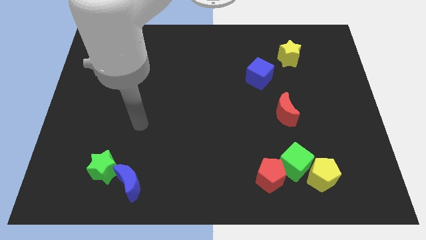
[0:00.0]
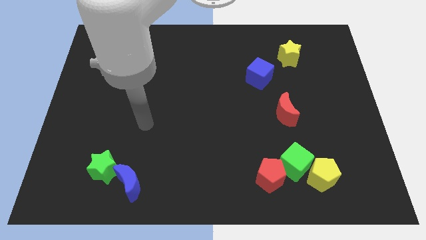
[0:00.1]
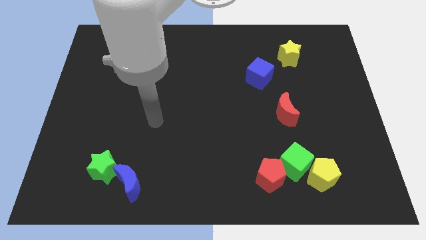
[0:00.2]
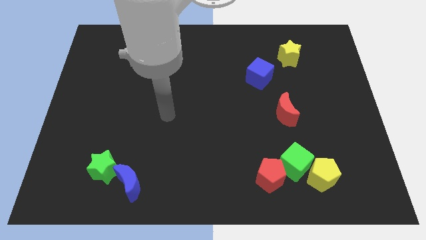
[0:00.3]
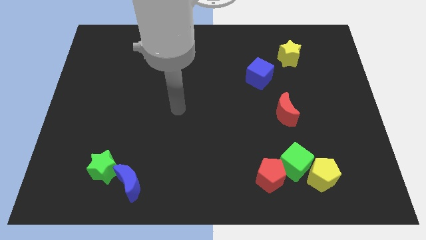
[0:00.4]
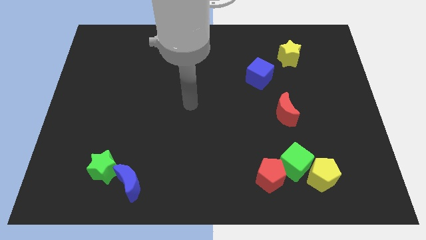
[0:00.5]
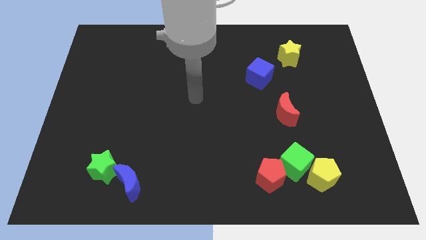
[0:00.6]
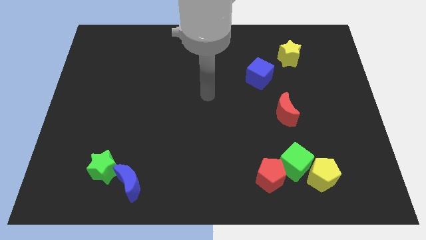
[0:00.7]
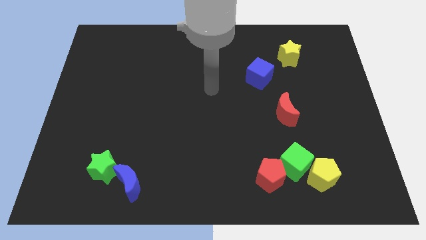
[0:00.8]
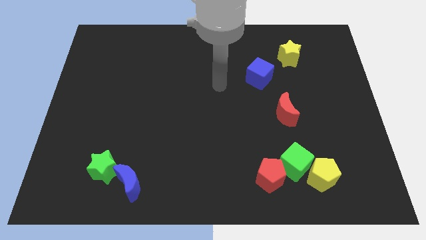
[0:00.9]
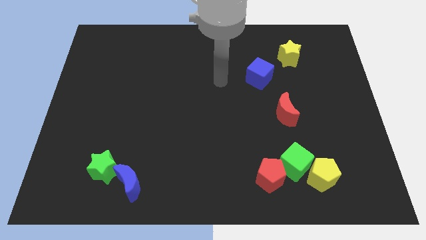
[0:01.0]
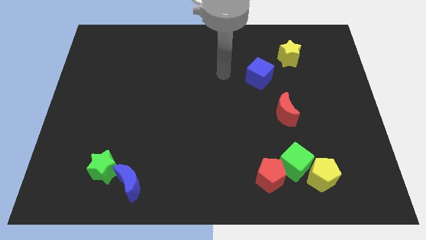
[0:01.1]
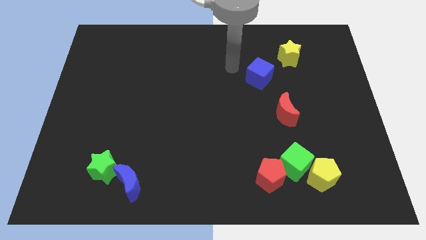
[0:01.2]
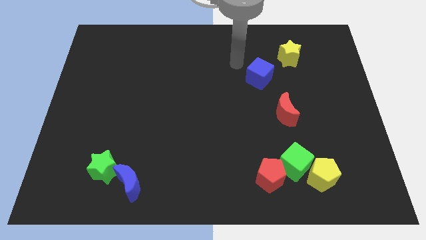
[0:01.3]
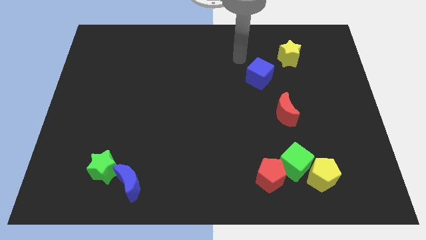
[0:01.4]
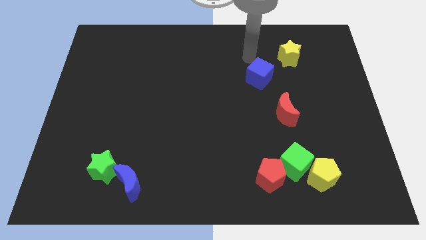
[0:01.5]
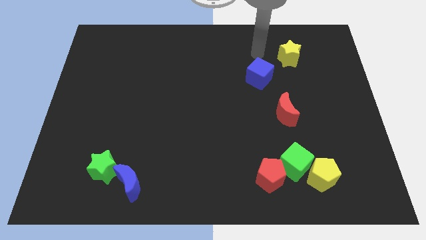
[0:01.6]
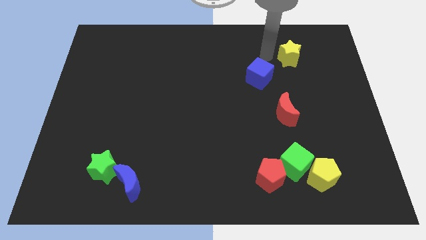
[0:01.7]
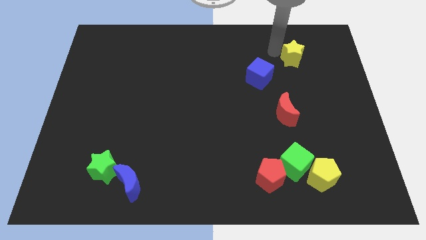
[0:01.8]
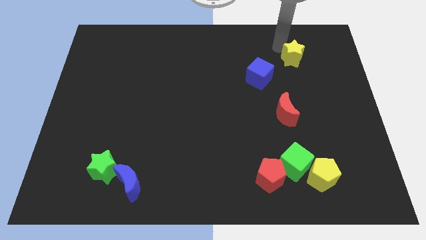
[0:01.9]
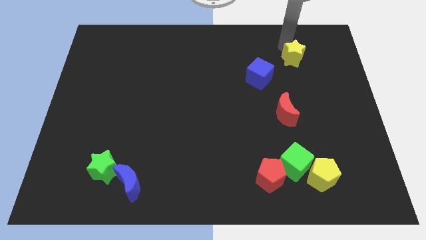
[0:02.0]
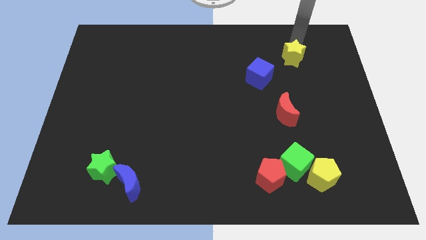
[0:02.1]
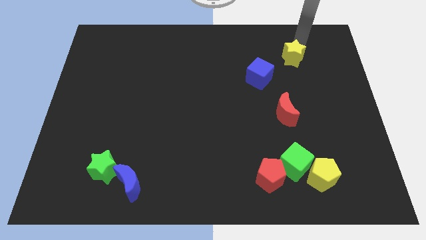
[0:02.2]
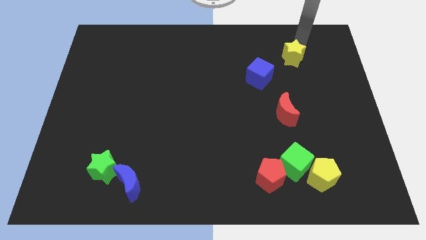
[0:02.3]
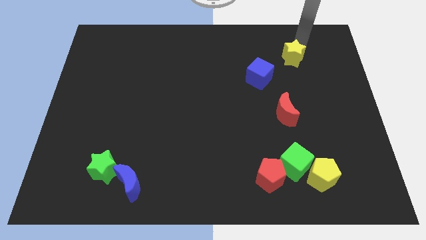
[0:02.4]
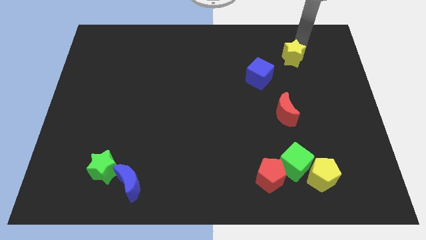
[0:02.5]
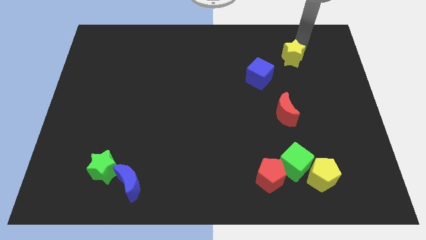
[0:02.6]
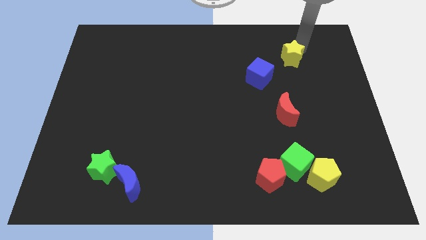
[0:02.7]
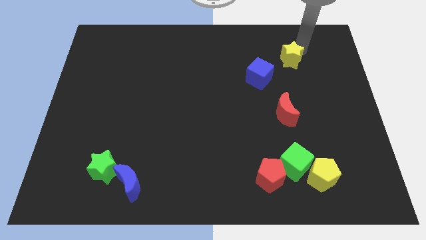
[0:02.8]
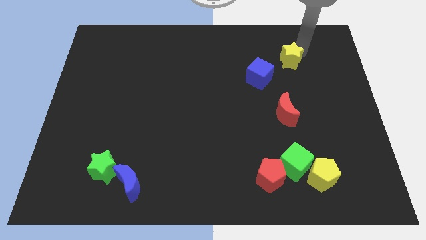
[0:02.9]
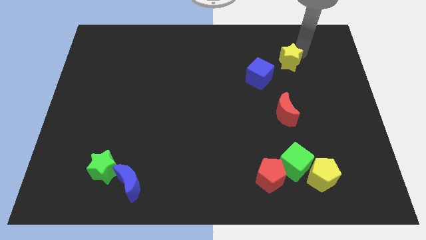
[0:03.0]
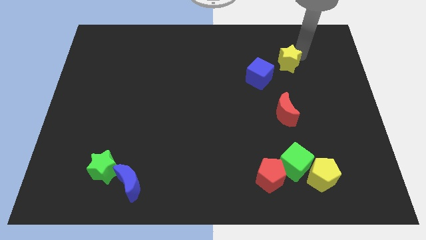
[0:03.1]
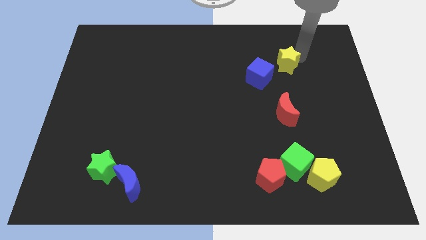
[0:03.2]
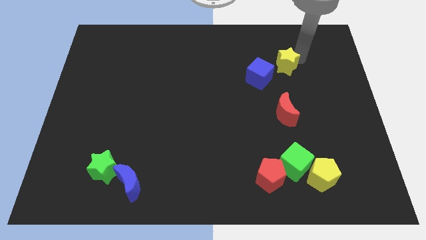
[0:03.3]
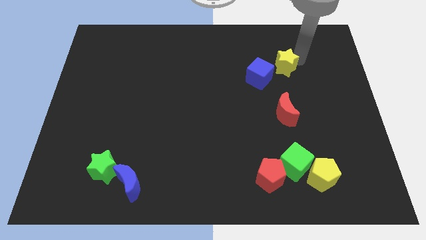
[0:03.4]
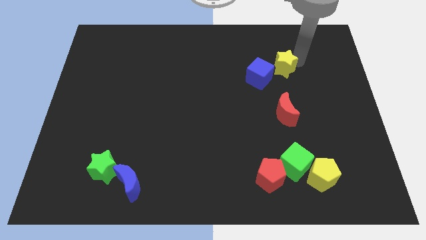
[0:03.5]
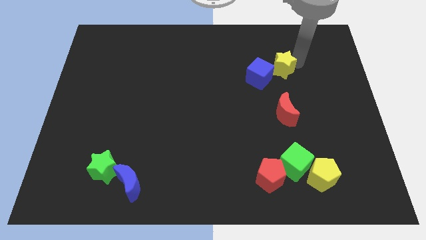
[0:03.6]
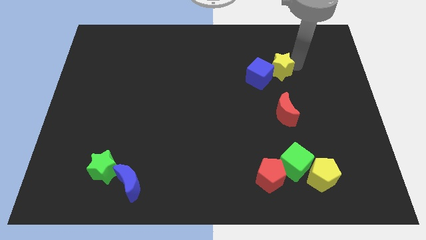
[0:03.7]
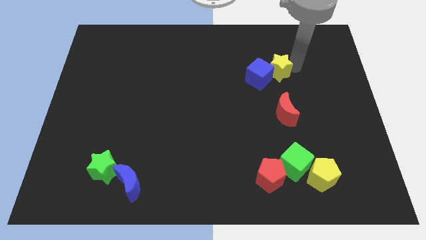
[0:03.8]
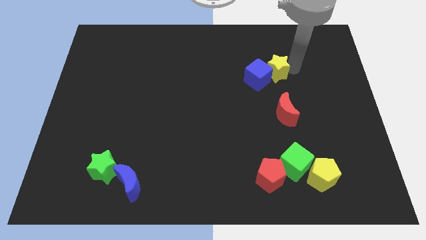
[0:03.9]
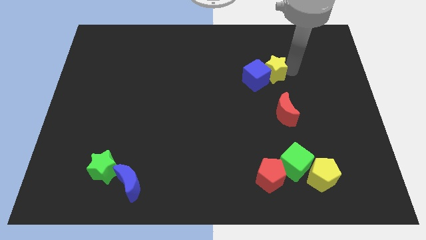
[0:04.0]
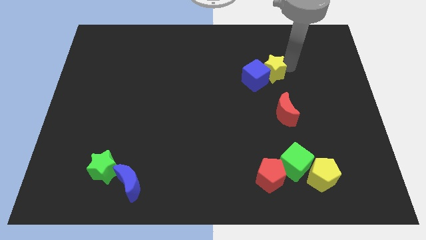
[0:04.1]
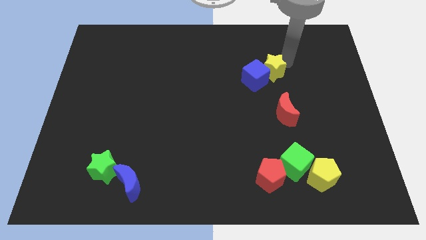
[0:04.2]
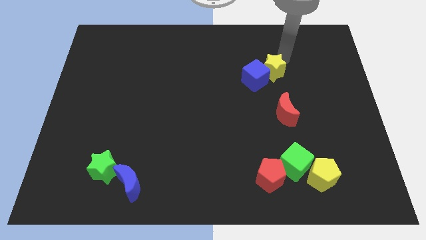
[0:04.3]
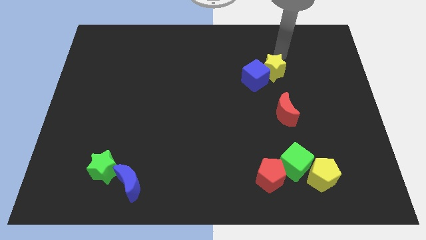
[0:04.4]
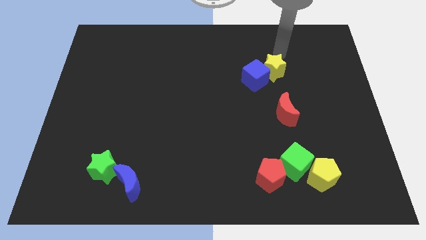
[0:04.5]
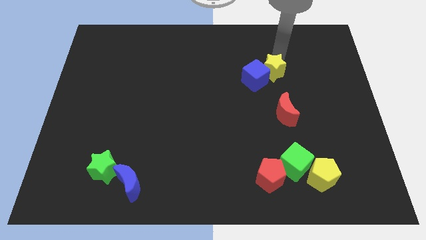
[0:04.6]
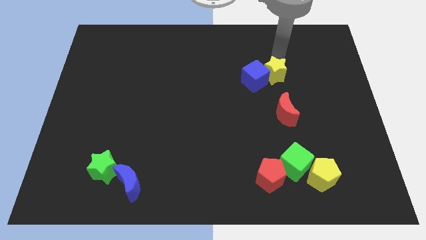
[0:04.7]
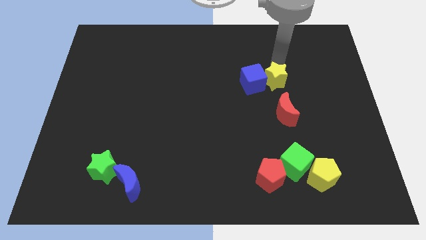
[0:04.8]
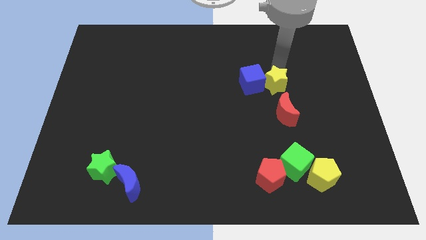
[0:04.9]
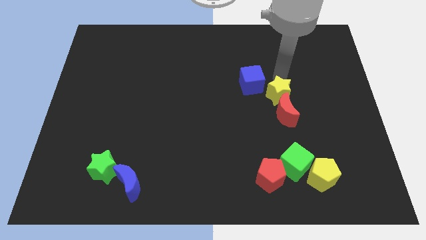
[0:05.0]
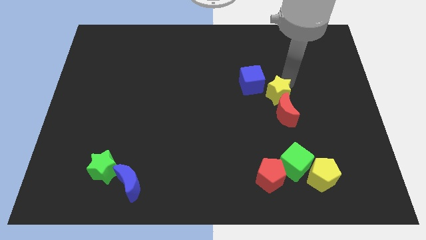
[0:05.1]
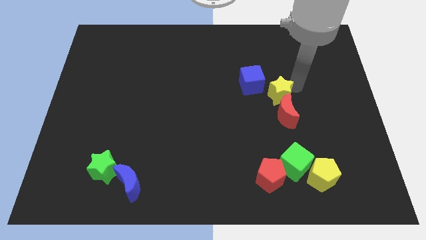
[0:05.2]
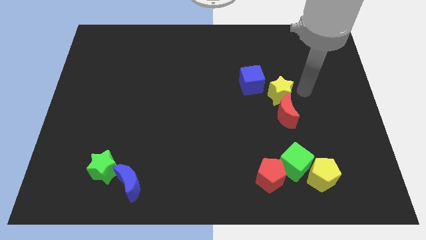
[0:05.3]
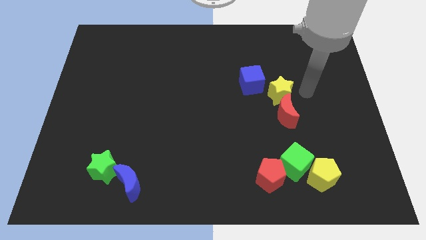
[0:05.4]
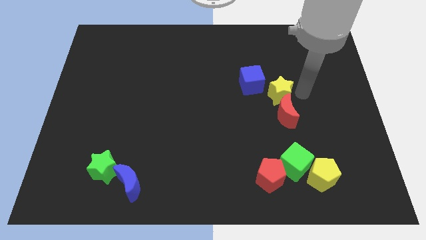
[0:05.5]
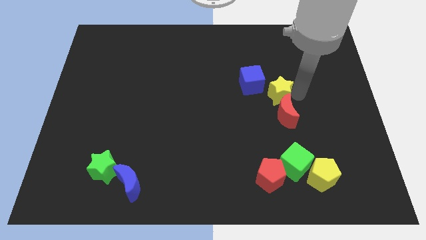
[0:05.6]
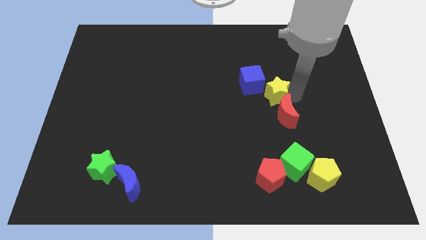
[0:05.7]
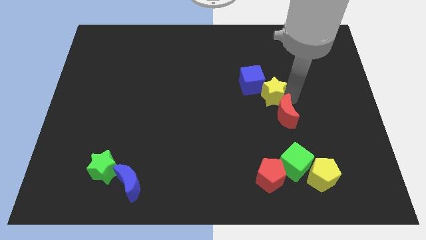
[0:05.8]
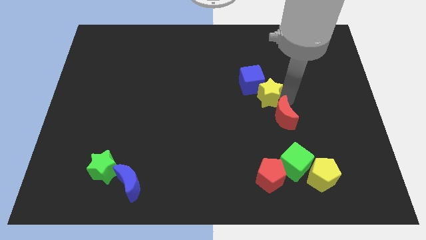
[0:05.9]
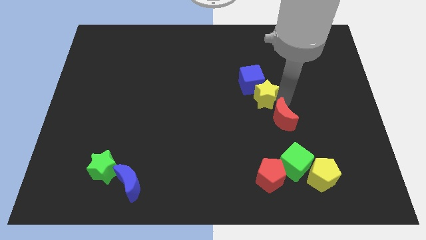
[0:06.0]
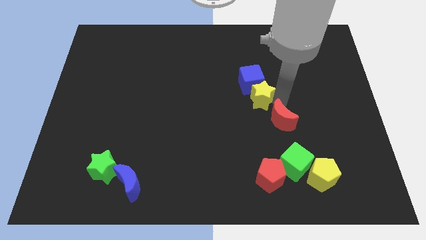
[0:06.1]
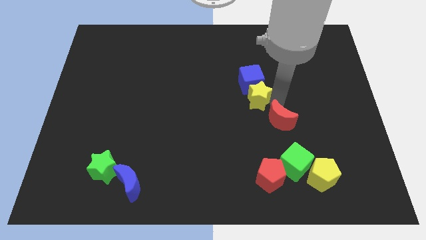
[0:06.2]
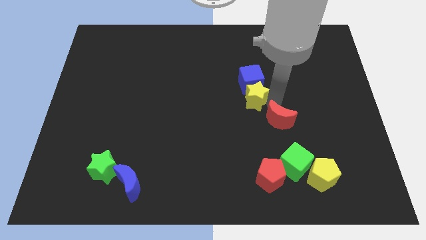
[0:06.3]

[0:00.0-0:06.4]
move the yellow star to the bottom left of the blue cube

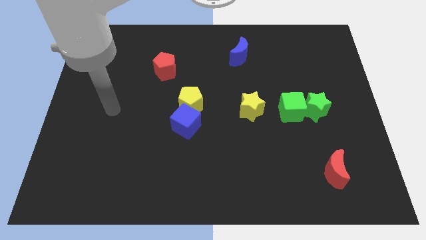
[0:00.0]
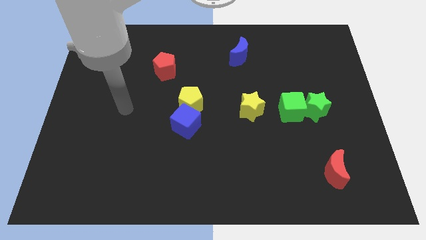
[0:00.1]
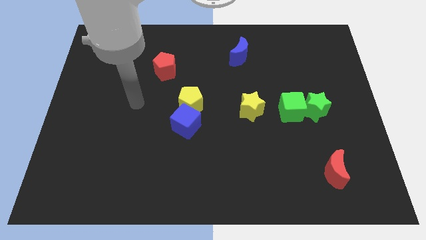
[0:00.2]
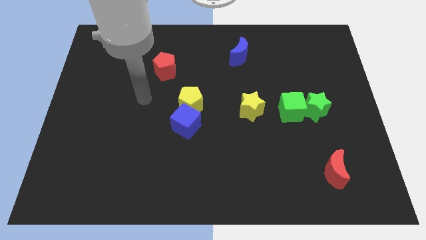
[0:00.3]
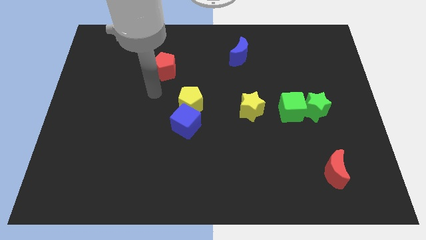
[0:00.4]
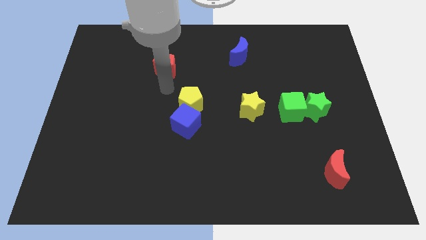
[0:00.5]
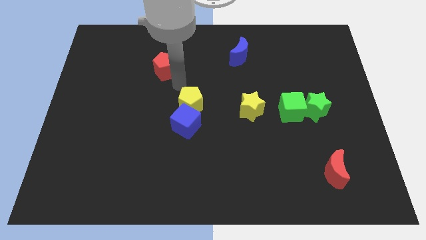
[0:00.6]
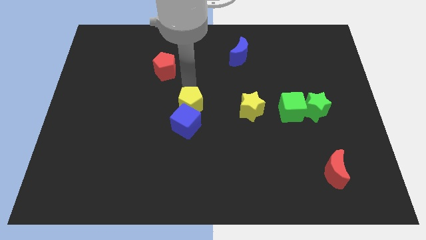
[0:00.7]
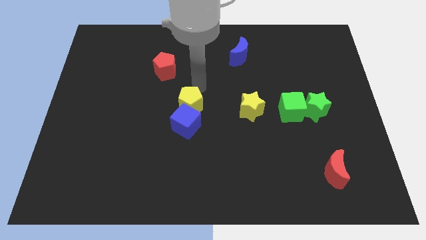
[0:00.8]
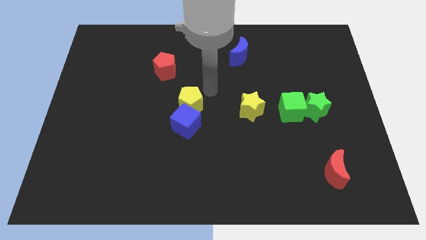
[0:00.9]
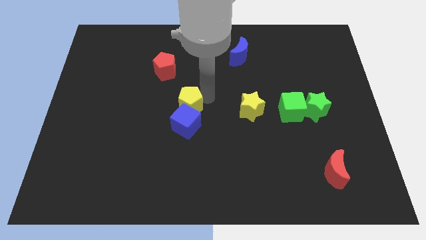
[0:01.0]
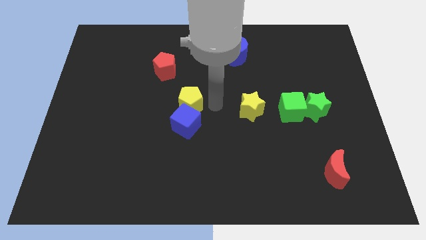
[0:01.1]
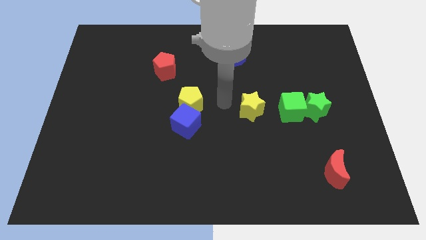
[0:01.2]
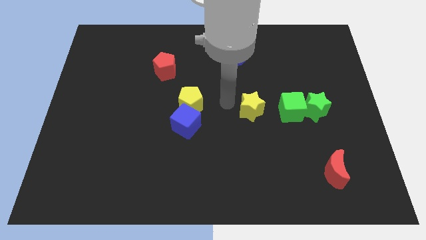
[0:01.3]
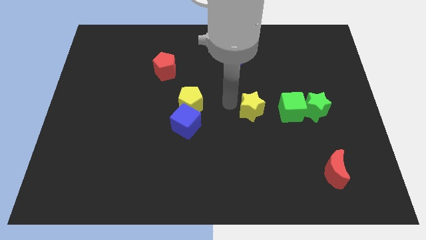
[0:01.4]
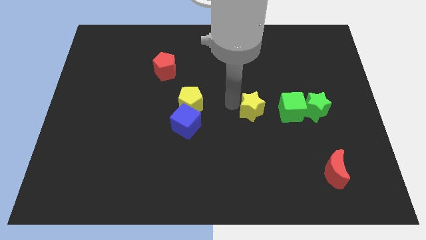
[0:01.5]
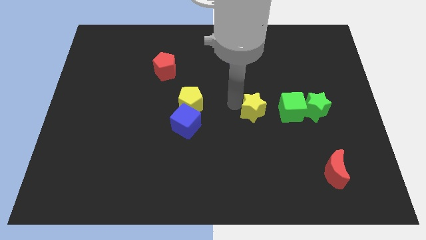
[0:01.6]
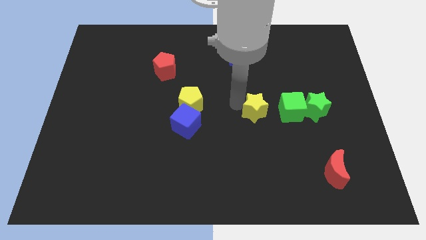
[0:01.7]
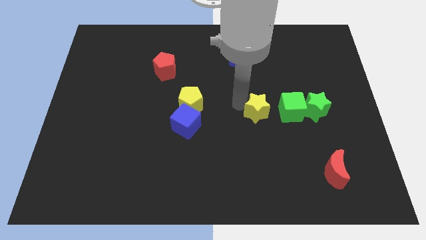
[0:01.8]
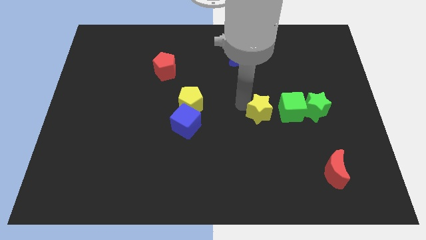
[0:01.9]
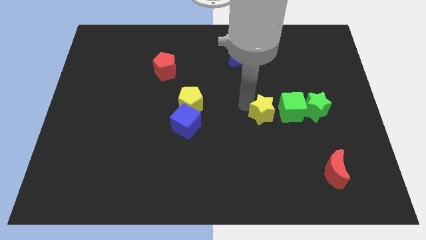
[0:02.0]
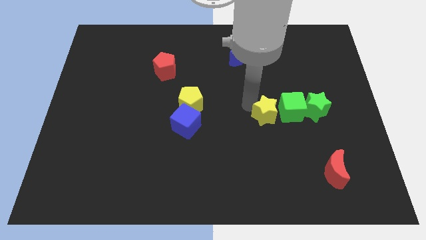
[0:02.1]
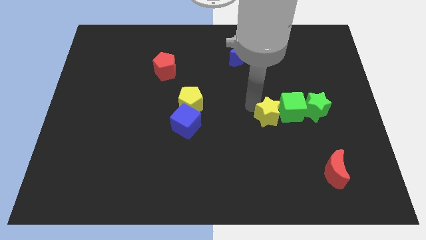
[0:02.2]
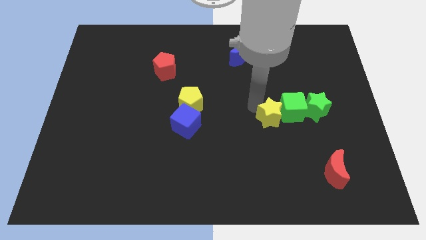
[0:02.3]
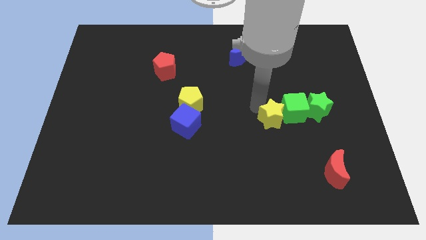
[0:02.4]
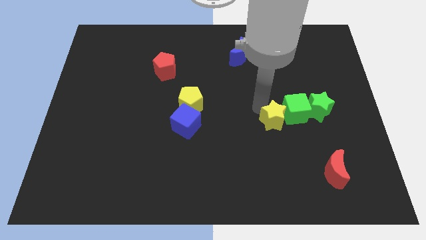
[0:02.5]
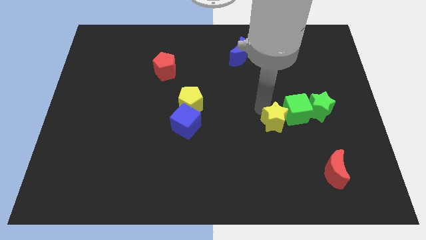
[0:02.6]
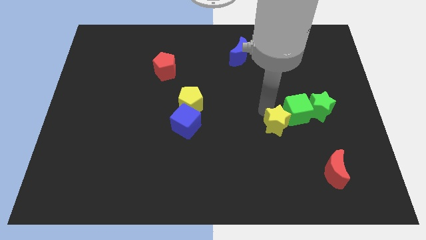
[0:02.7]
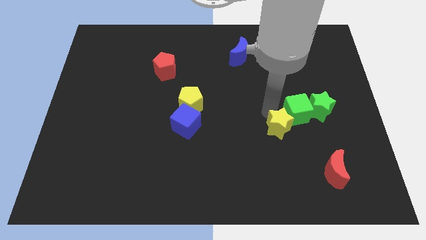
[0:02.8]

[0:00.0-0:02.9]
put the yellow star to the bottom of the green cube
